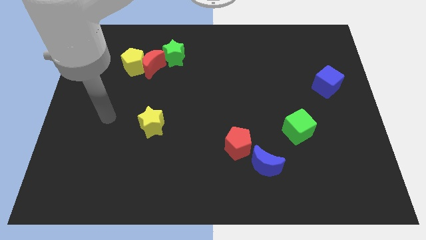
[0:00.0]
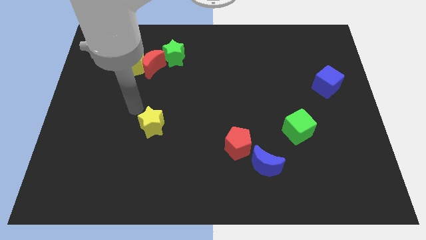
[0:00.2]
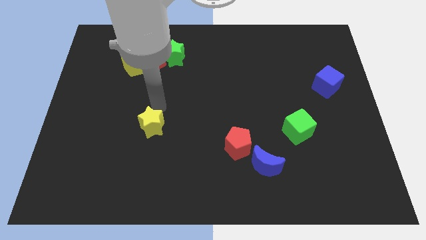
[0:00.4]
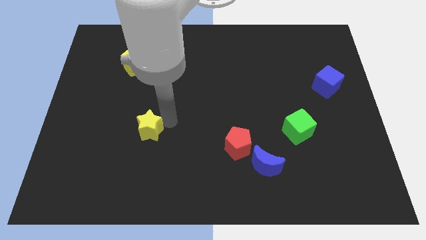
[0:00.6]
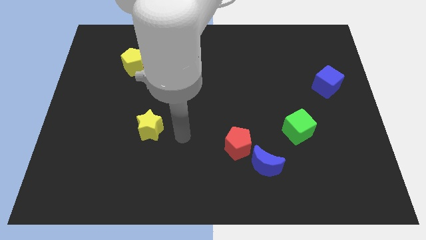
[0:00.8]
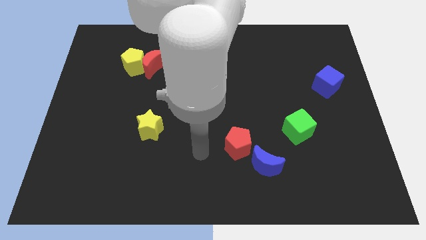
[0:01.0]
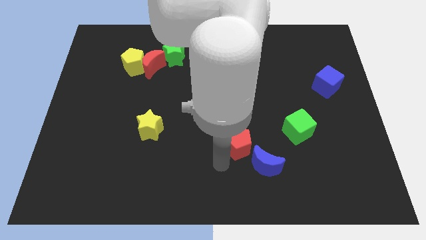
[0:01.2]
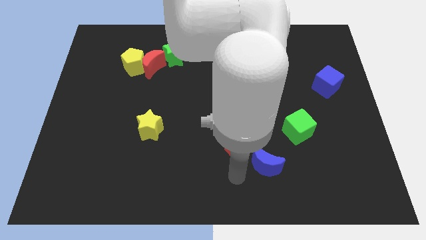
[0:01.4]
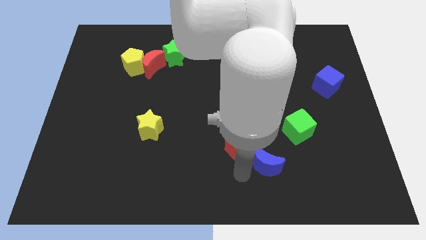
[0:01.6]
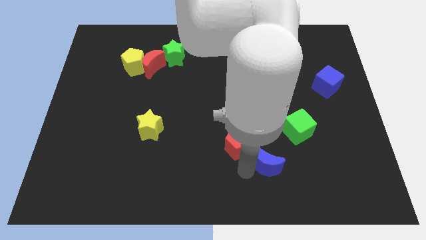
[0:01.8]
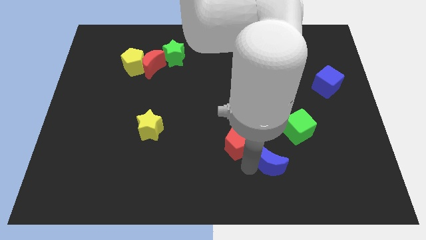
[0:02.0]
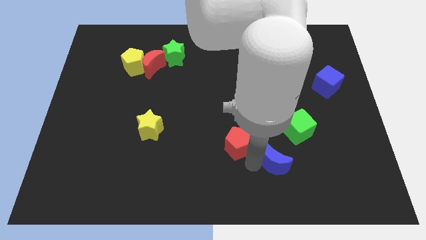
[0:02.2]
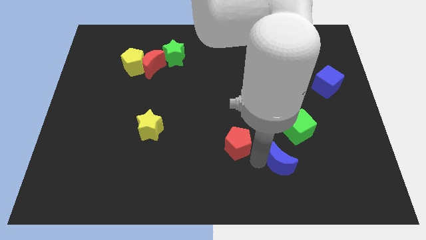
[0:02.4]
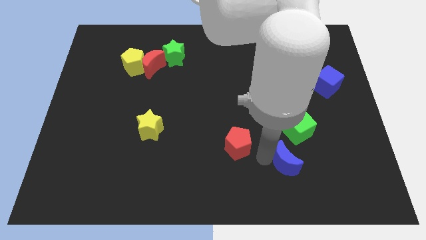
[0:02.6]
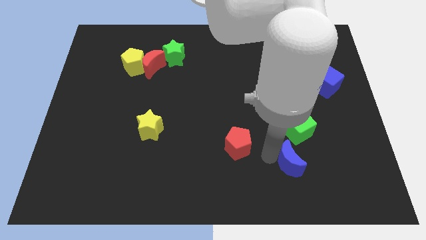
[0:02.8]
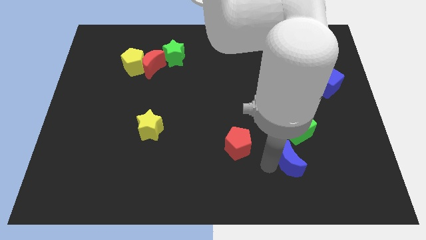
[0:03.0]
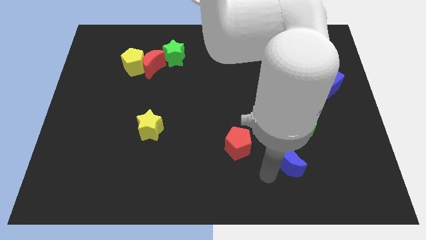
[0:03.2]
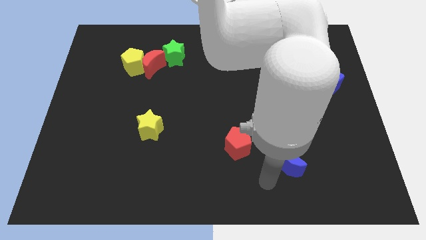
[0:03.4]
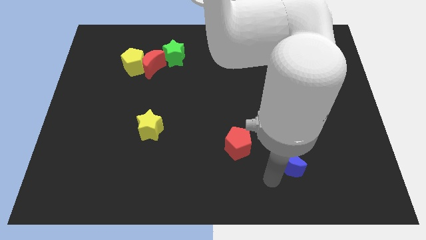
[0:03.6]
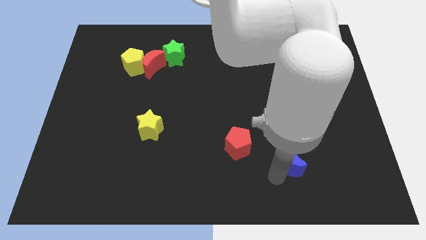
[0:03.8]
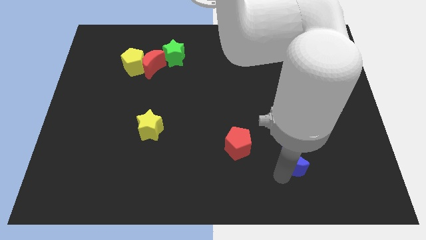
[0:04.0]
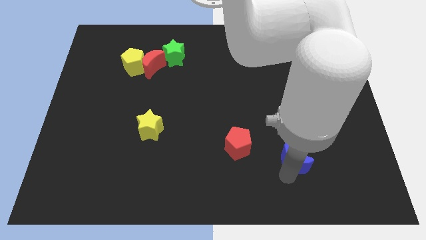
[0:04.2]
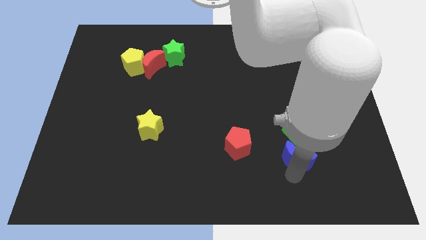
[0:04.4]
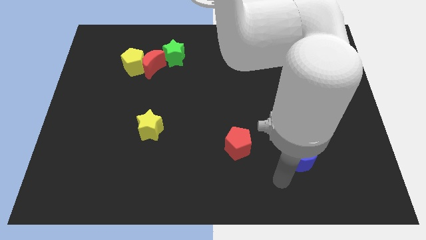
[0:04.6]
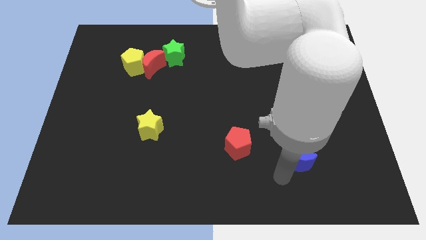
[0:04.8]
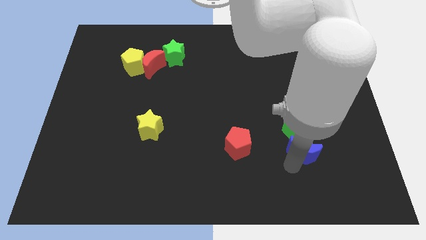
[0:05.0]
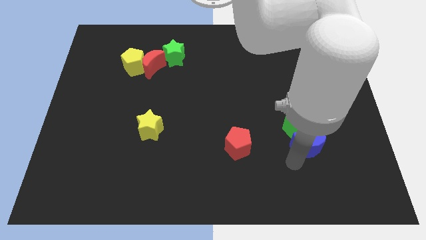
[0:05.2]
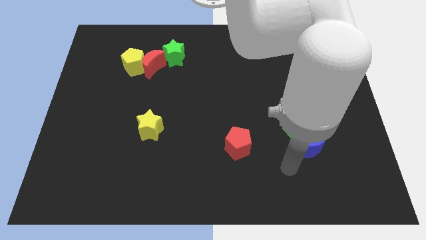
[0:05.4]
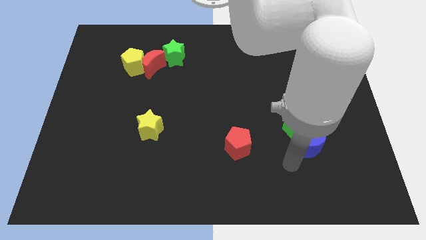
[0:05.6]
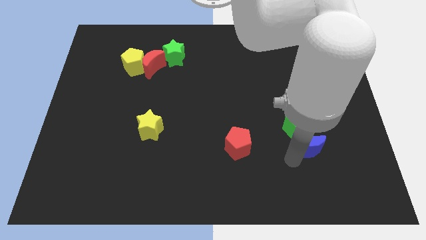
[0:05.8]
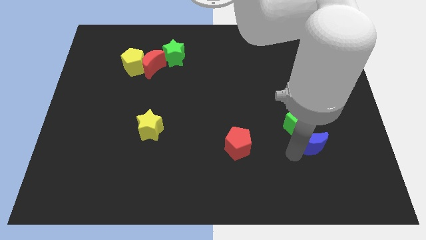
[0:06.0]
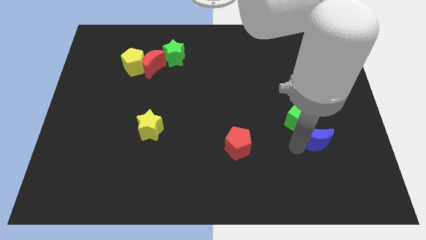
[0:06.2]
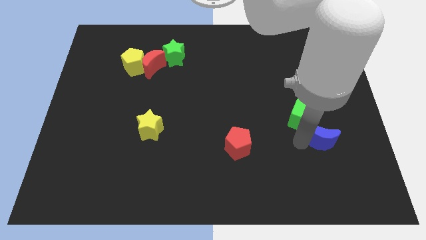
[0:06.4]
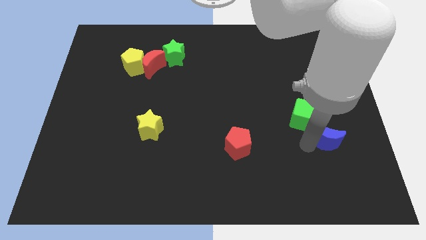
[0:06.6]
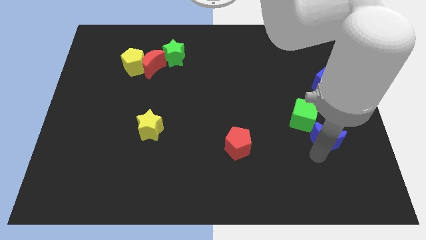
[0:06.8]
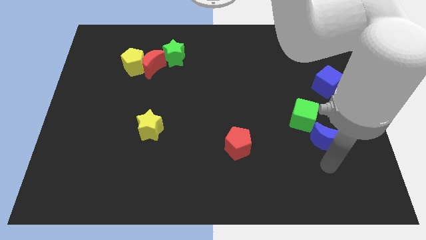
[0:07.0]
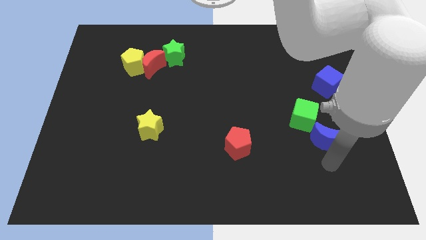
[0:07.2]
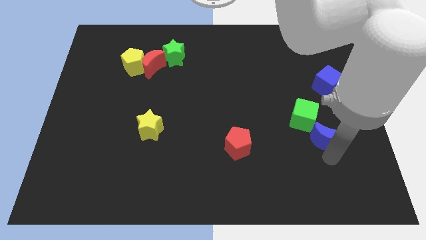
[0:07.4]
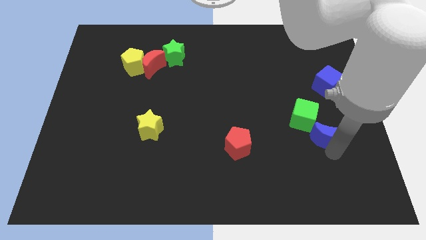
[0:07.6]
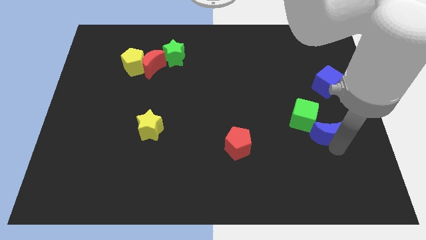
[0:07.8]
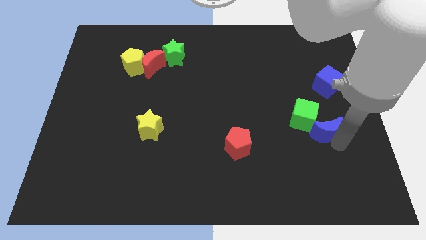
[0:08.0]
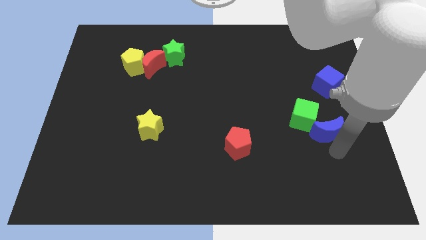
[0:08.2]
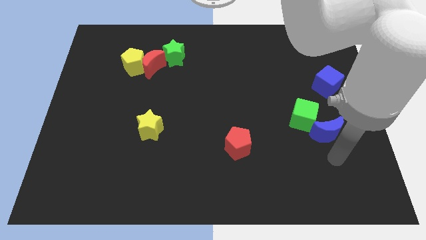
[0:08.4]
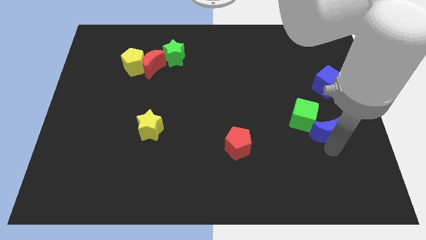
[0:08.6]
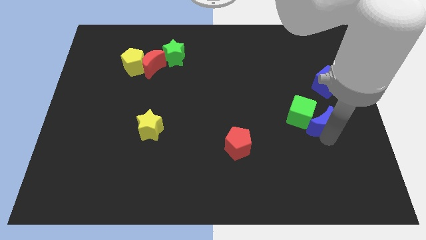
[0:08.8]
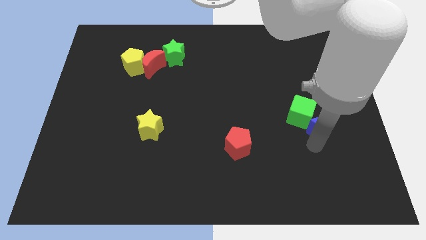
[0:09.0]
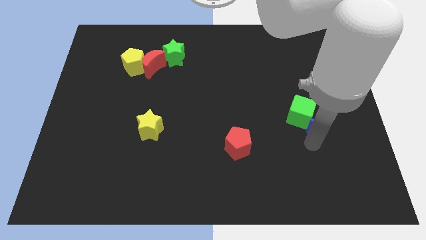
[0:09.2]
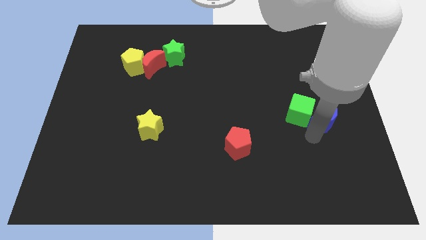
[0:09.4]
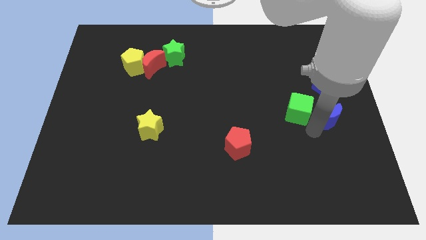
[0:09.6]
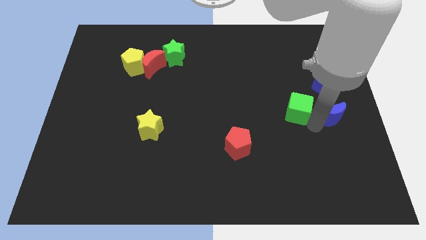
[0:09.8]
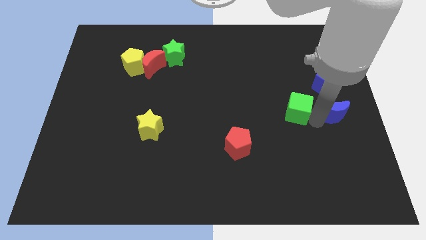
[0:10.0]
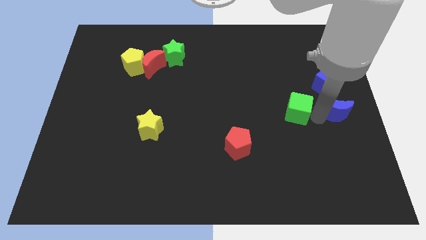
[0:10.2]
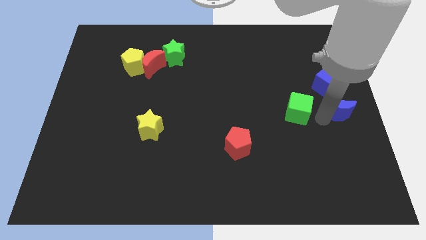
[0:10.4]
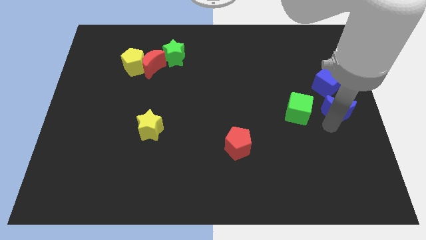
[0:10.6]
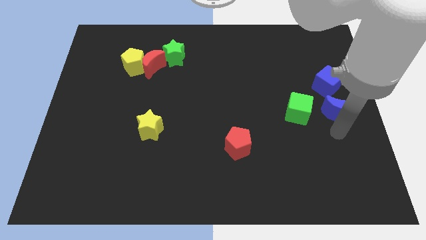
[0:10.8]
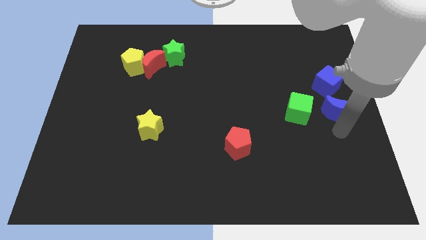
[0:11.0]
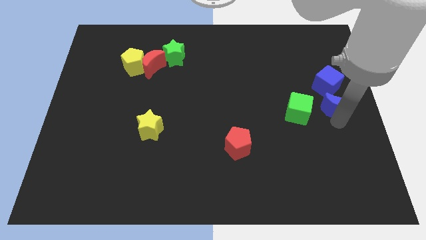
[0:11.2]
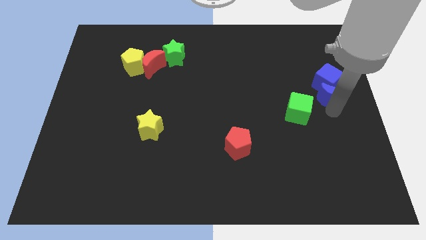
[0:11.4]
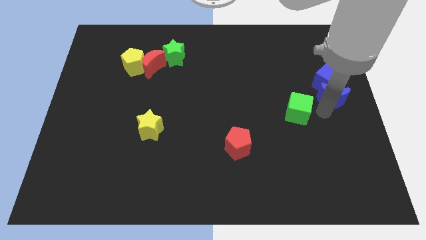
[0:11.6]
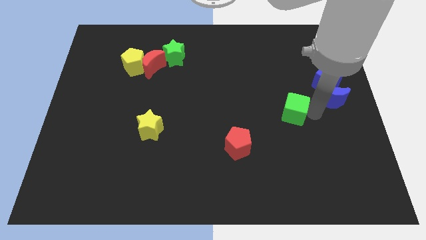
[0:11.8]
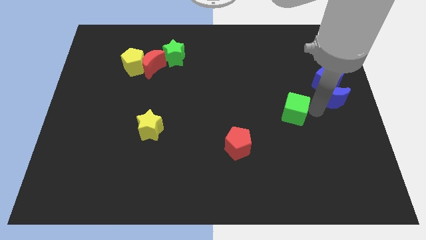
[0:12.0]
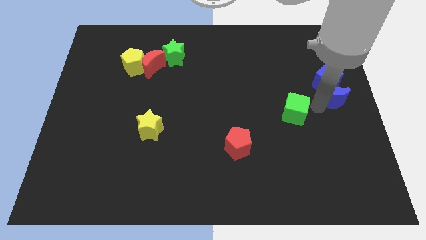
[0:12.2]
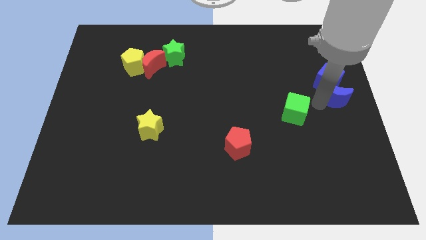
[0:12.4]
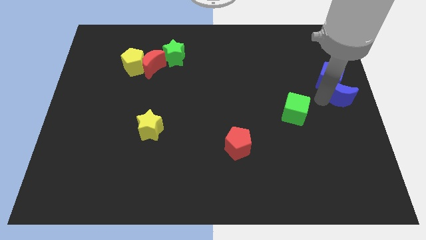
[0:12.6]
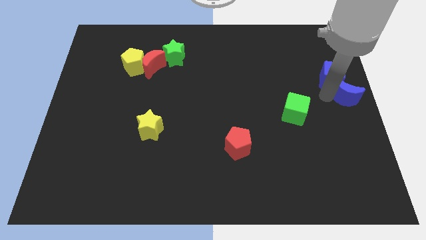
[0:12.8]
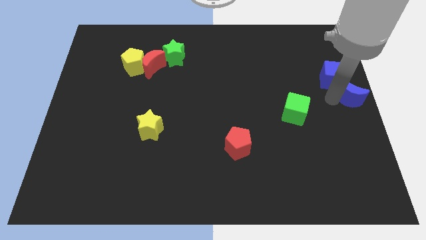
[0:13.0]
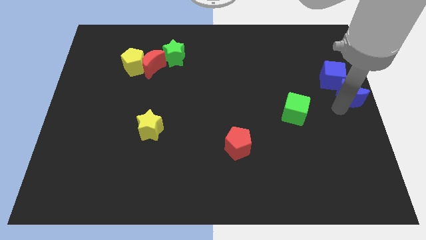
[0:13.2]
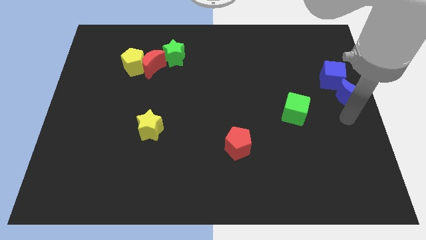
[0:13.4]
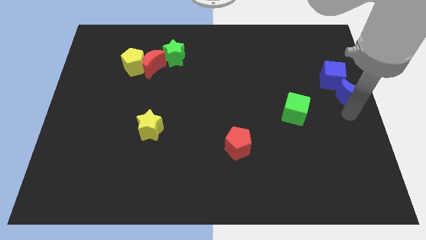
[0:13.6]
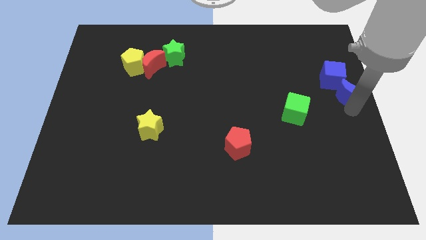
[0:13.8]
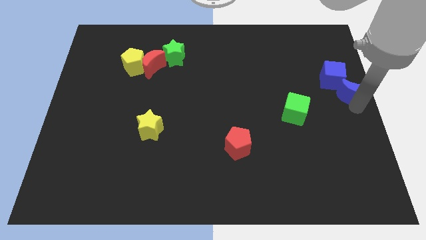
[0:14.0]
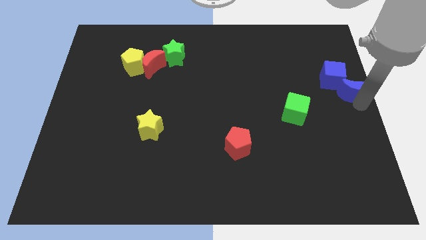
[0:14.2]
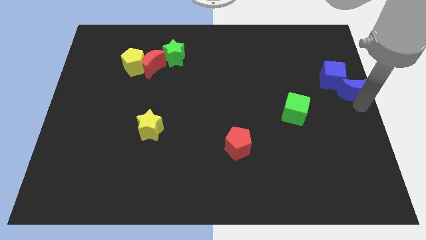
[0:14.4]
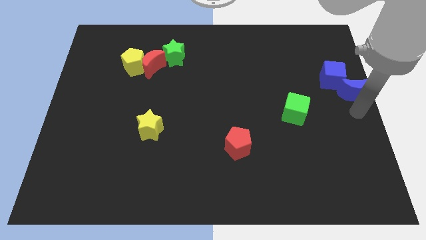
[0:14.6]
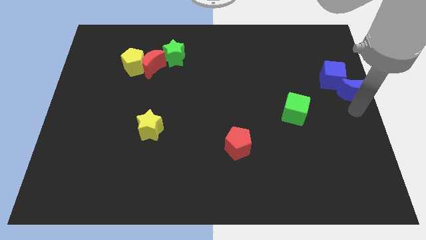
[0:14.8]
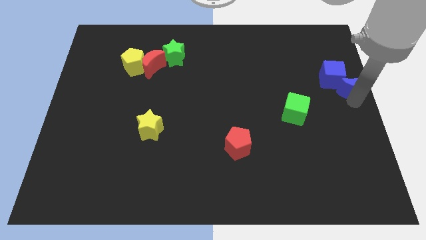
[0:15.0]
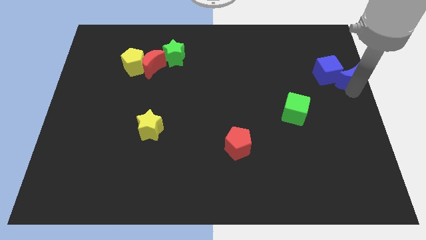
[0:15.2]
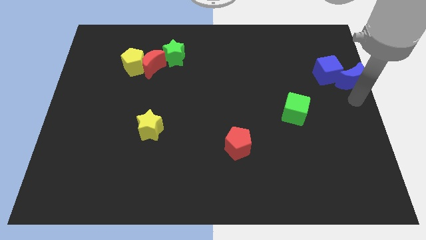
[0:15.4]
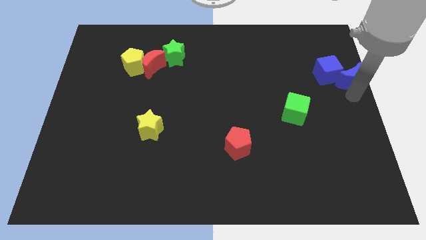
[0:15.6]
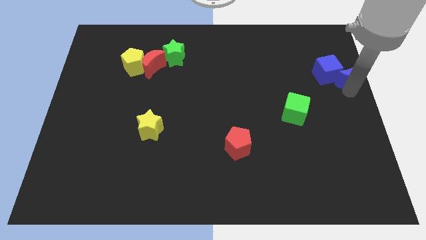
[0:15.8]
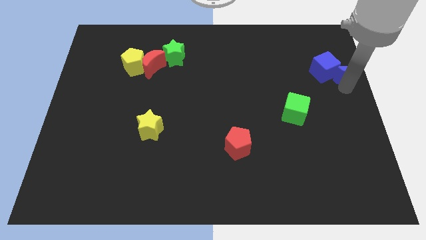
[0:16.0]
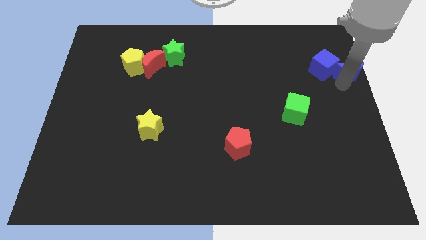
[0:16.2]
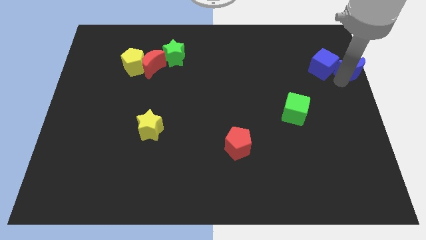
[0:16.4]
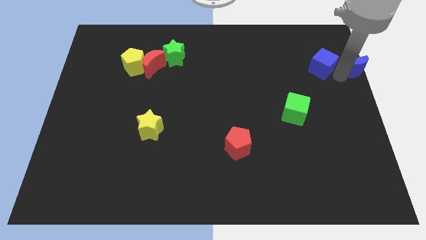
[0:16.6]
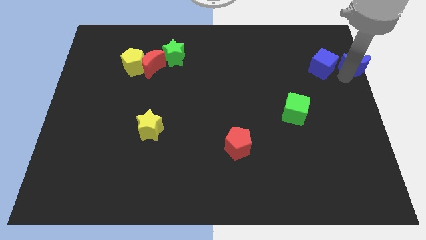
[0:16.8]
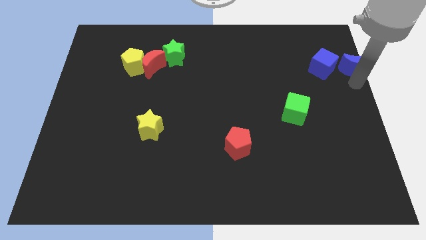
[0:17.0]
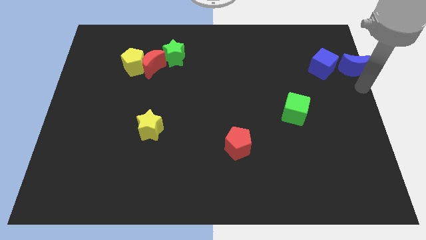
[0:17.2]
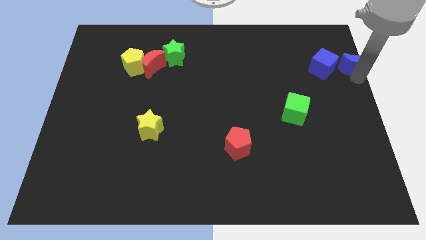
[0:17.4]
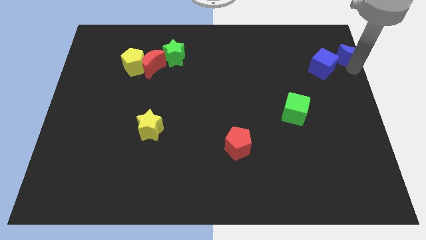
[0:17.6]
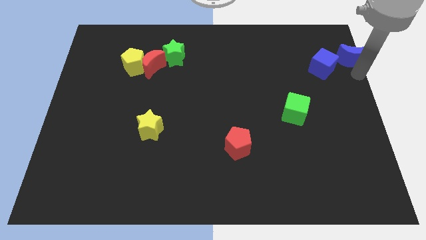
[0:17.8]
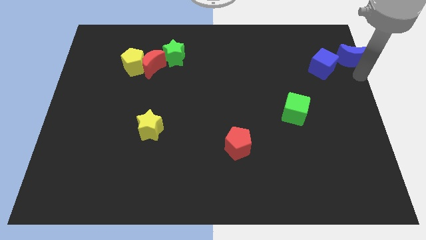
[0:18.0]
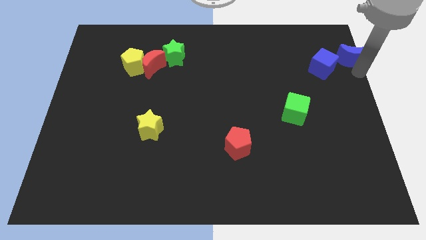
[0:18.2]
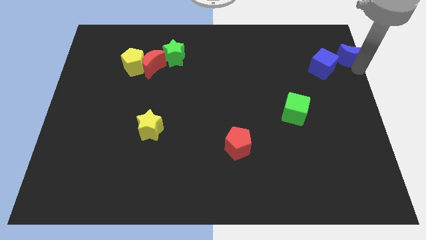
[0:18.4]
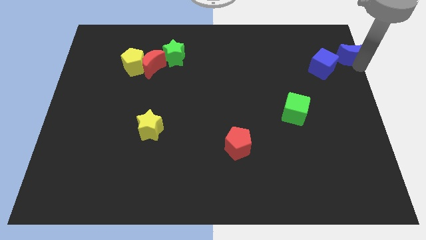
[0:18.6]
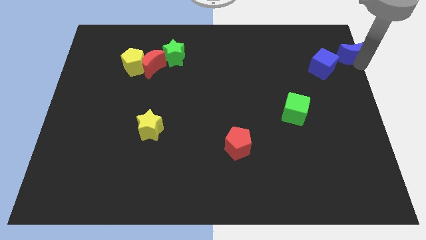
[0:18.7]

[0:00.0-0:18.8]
put the blue moon to the top right of the board
